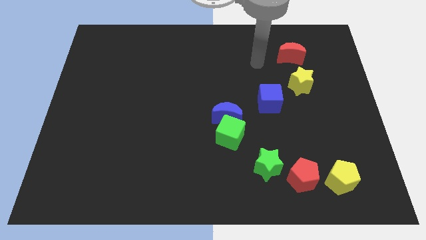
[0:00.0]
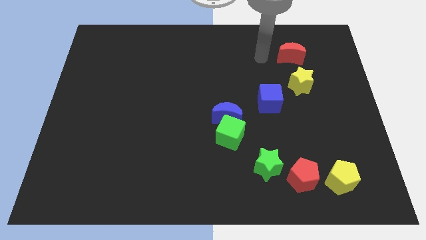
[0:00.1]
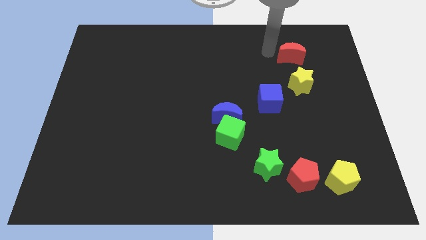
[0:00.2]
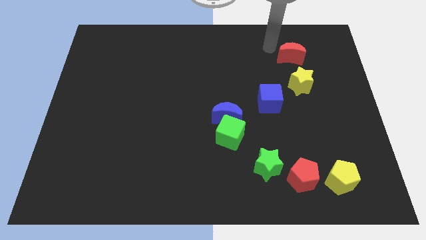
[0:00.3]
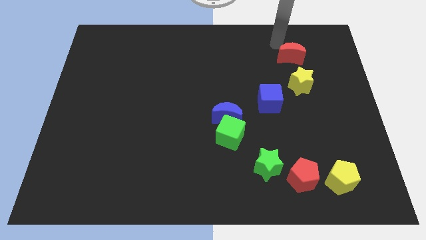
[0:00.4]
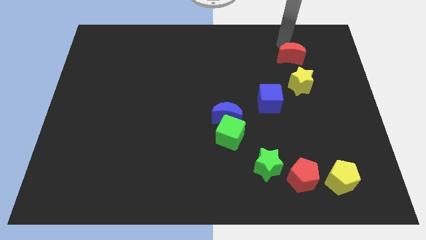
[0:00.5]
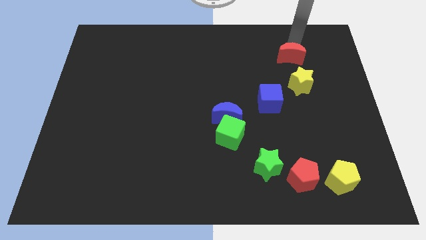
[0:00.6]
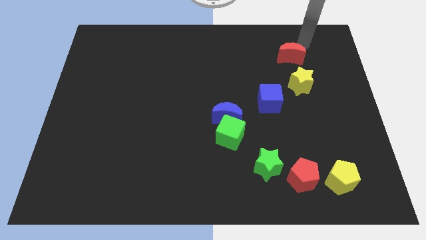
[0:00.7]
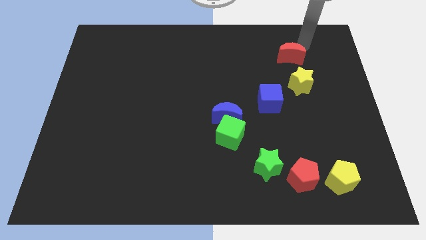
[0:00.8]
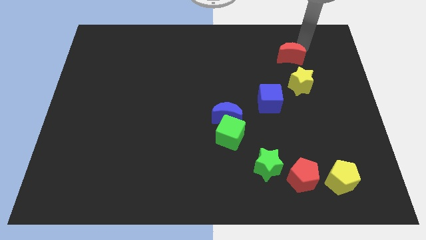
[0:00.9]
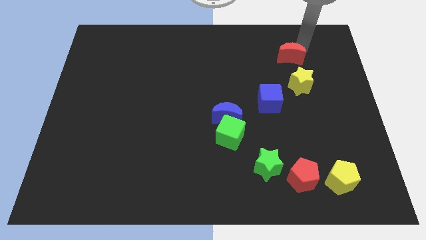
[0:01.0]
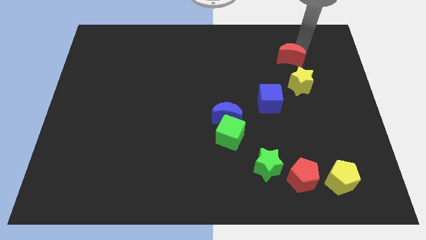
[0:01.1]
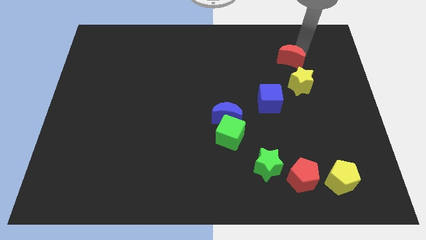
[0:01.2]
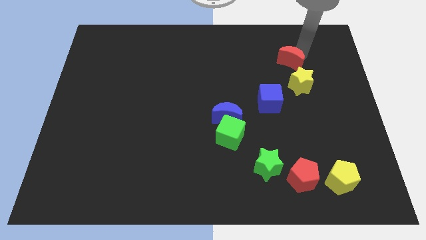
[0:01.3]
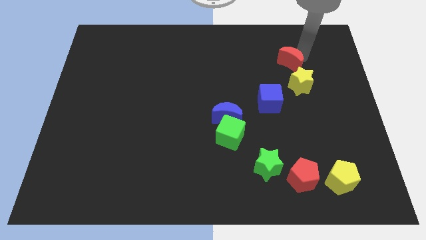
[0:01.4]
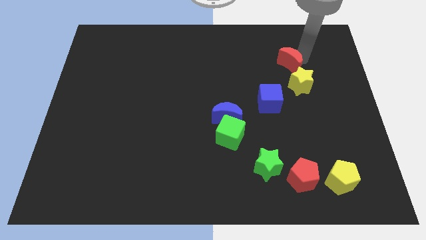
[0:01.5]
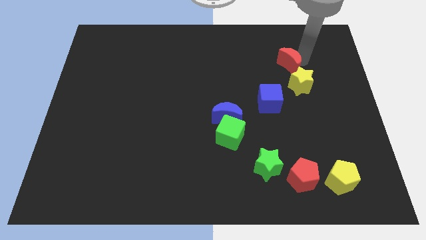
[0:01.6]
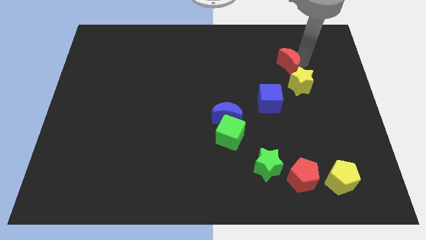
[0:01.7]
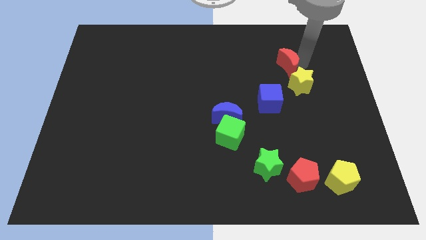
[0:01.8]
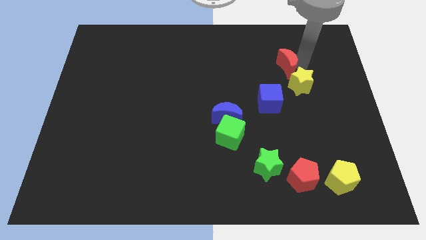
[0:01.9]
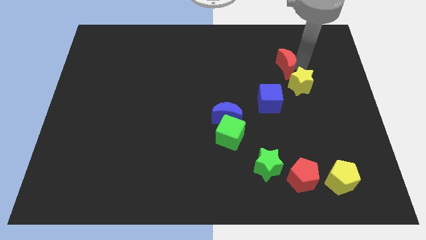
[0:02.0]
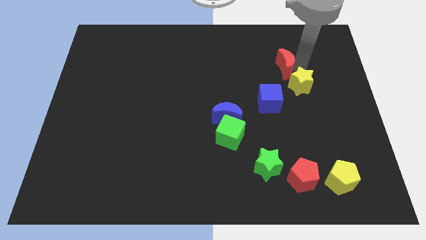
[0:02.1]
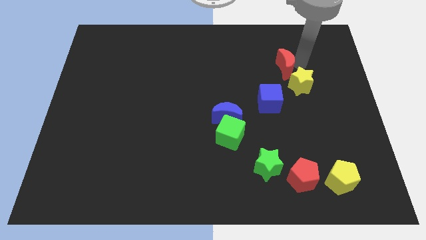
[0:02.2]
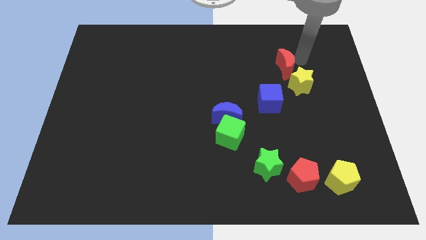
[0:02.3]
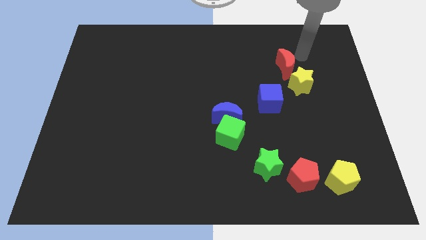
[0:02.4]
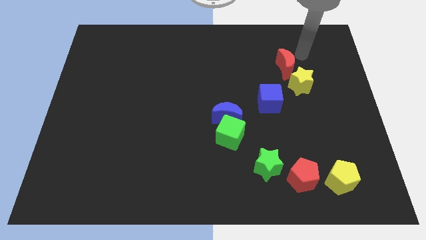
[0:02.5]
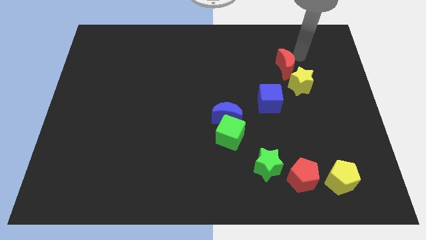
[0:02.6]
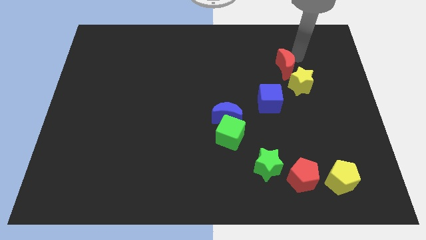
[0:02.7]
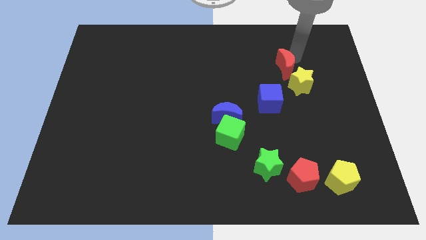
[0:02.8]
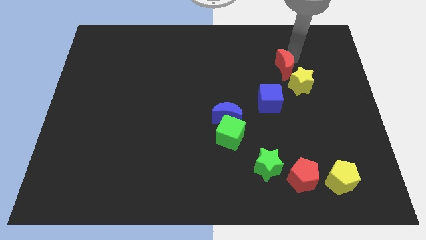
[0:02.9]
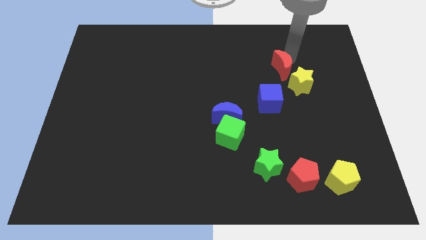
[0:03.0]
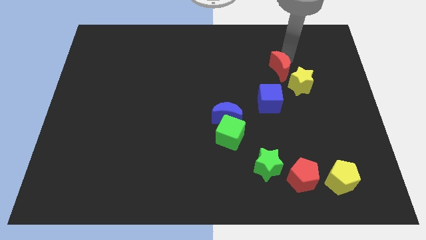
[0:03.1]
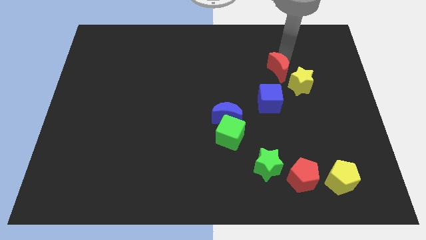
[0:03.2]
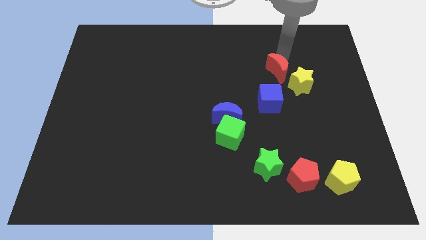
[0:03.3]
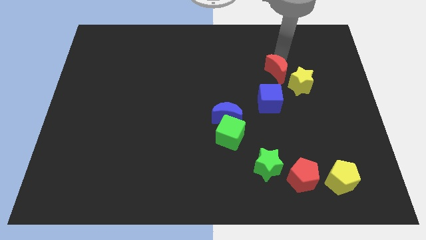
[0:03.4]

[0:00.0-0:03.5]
push the red moon downwards and left diagonally a little bit

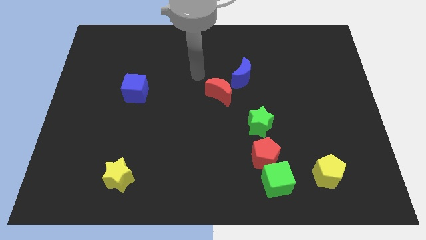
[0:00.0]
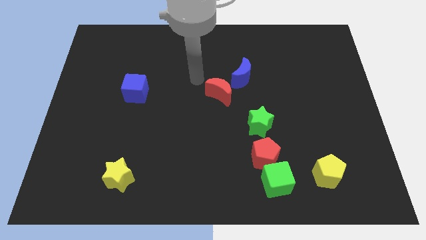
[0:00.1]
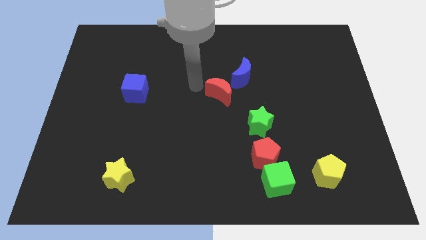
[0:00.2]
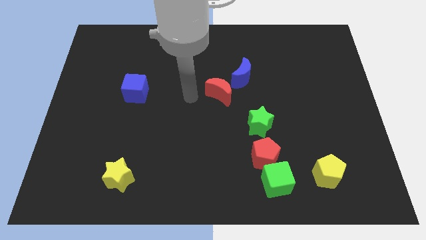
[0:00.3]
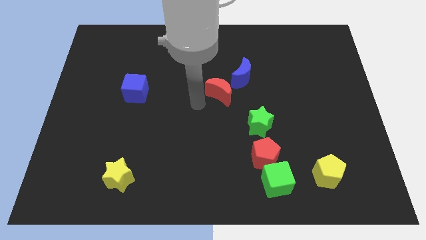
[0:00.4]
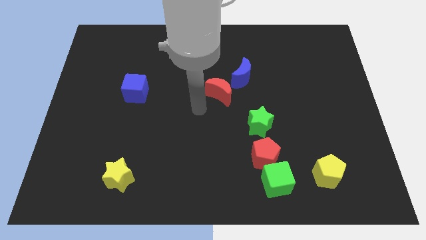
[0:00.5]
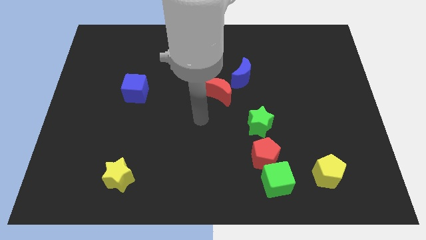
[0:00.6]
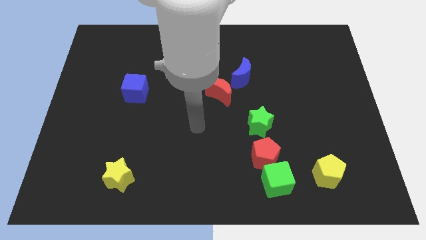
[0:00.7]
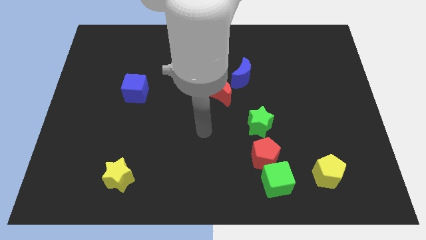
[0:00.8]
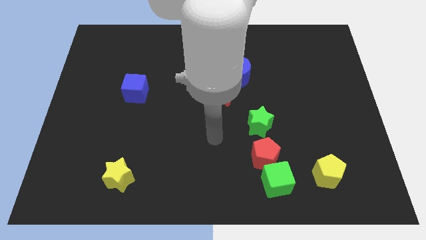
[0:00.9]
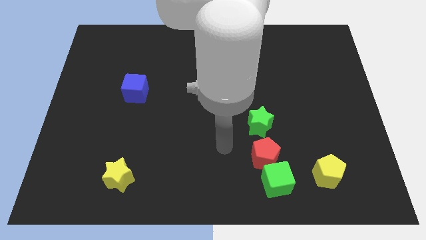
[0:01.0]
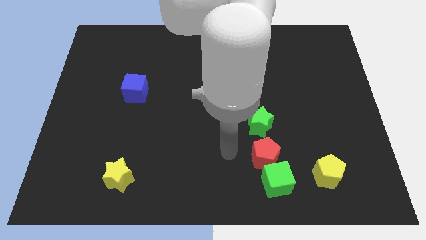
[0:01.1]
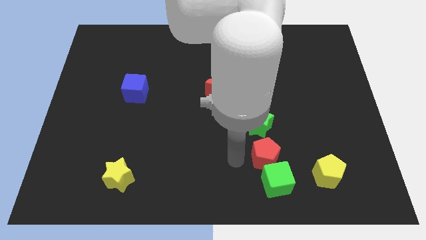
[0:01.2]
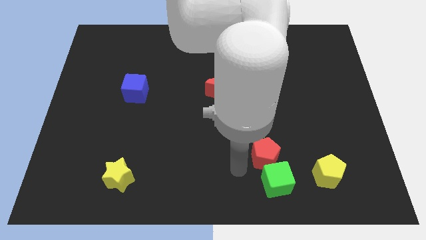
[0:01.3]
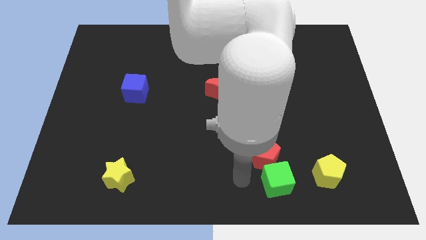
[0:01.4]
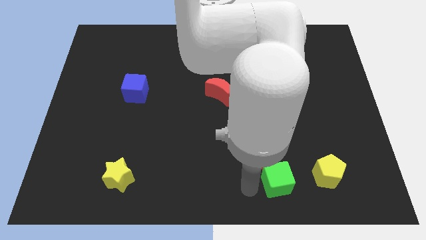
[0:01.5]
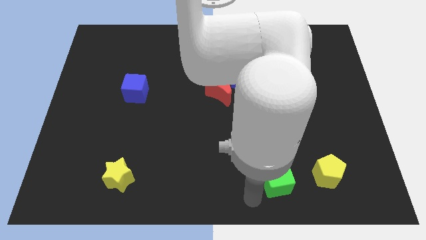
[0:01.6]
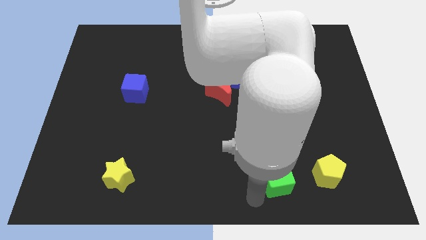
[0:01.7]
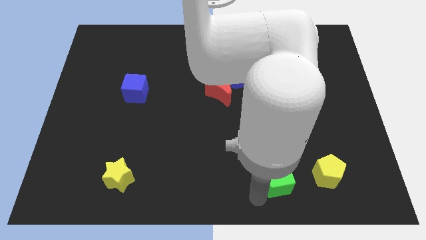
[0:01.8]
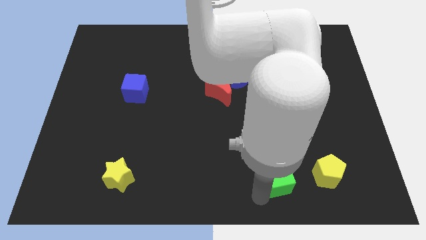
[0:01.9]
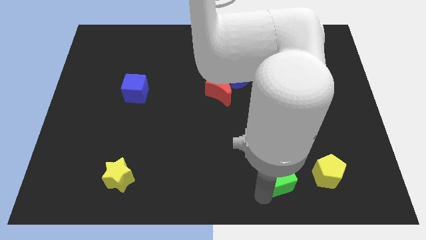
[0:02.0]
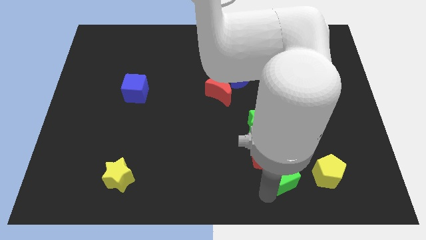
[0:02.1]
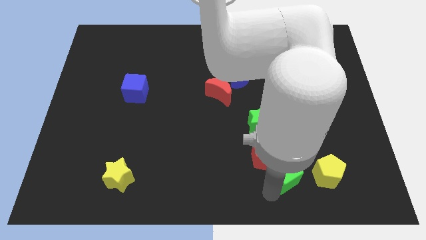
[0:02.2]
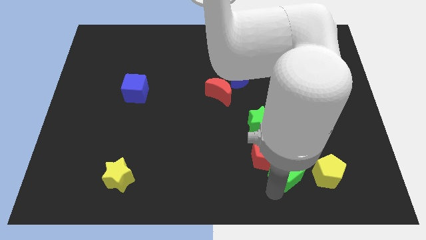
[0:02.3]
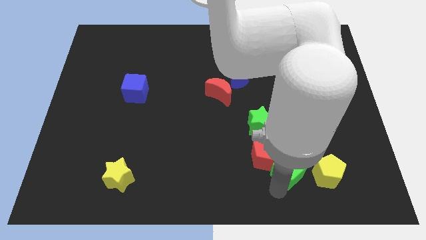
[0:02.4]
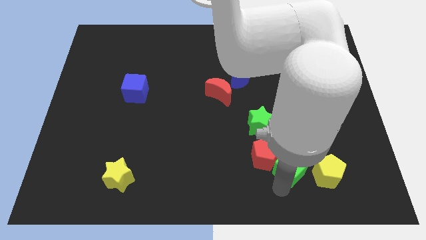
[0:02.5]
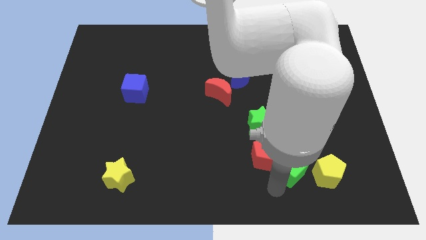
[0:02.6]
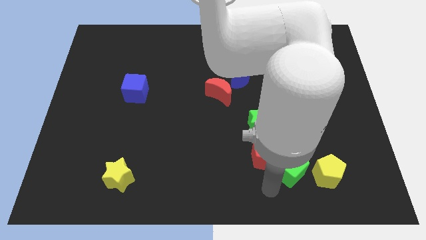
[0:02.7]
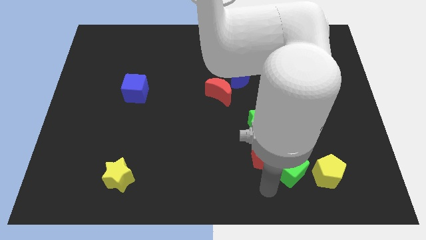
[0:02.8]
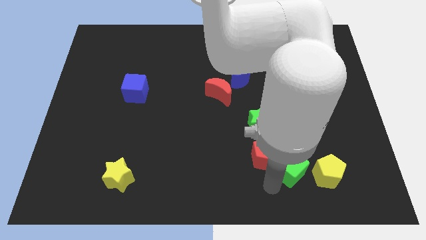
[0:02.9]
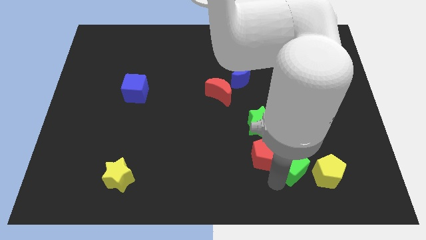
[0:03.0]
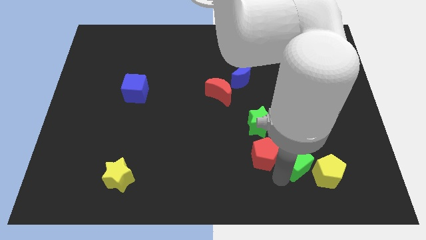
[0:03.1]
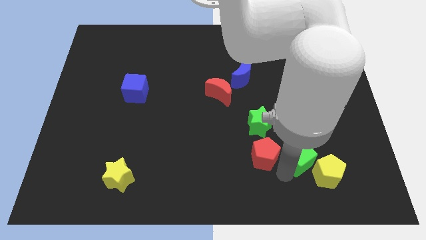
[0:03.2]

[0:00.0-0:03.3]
slide the green cube upwards and then right a bit

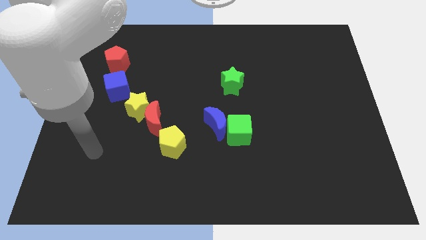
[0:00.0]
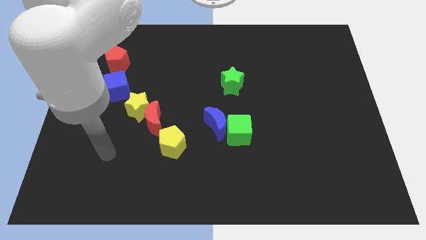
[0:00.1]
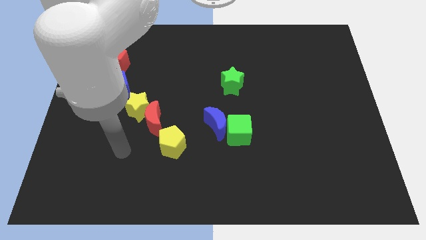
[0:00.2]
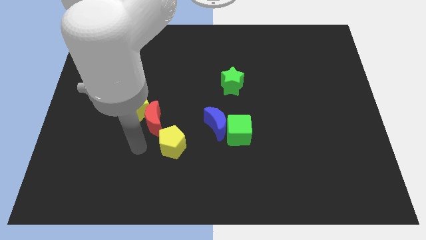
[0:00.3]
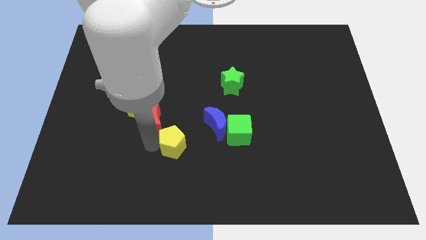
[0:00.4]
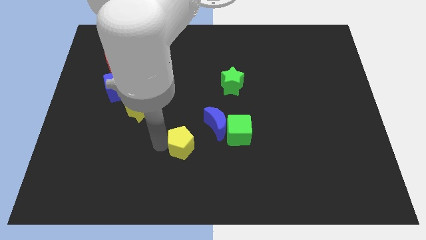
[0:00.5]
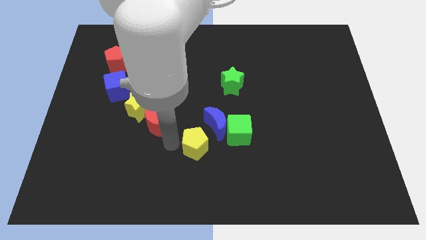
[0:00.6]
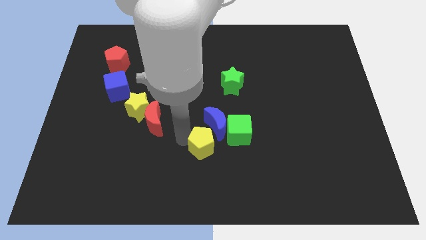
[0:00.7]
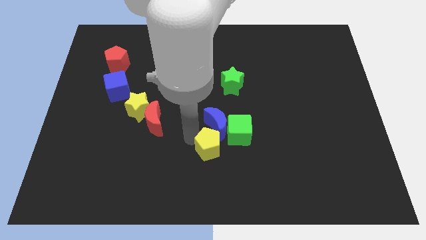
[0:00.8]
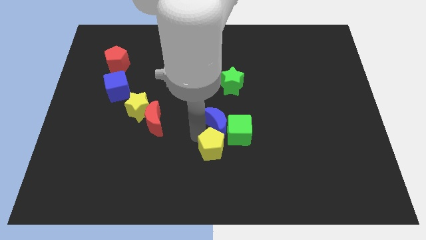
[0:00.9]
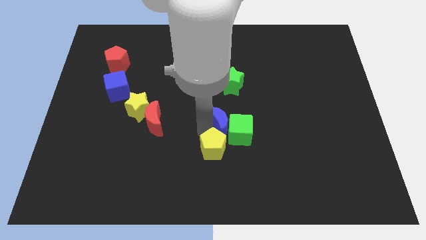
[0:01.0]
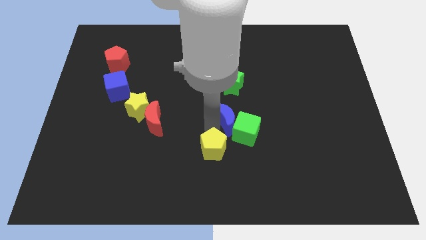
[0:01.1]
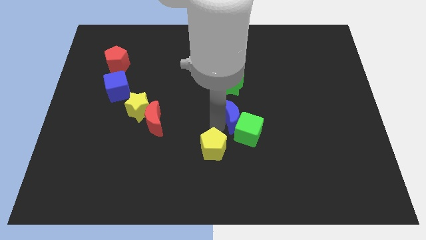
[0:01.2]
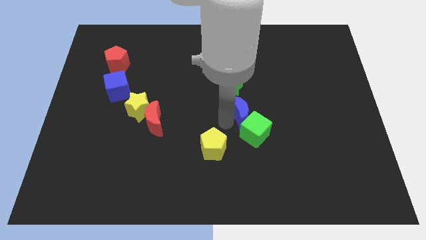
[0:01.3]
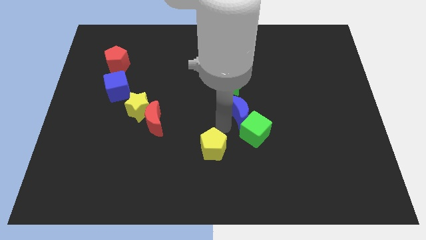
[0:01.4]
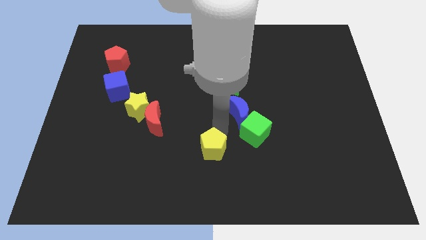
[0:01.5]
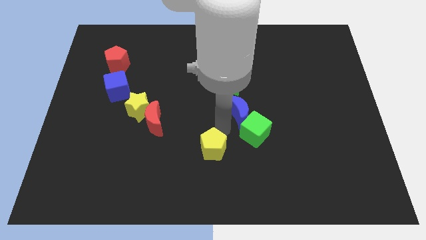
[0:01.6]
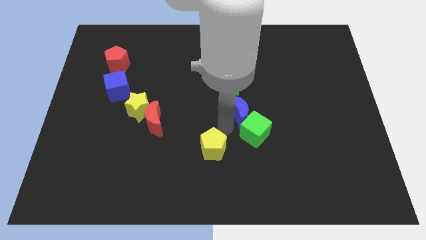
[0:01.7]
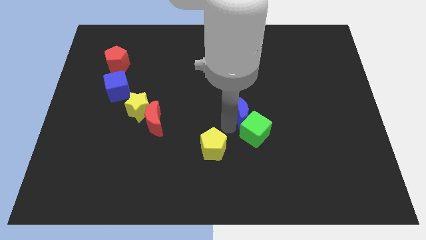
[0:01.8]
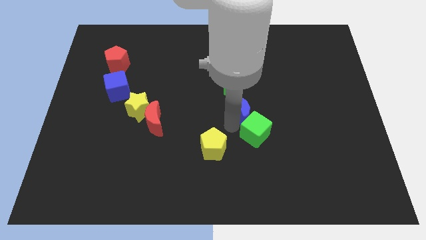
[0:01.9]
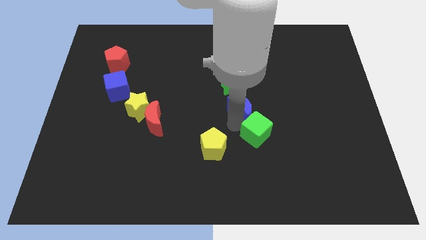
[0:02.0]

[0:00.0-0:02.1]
move the blue moon somewhat up and right
